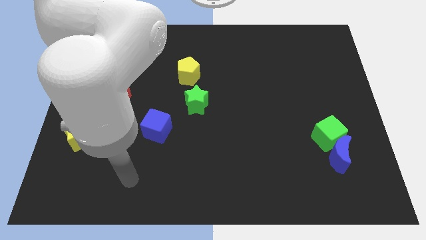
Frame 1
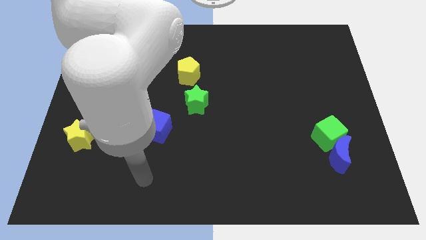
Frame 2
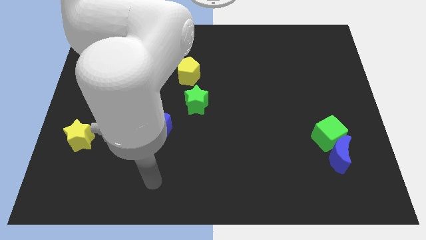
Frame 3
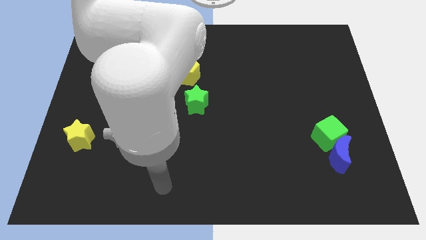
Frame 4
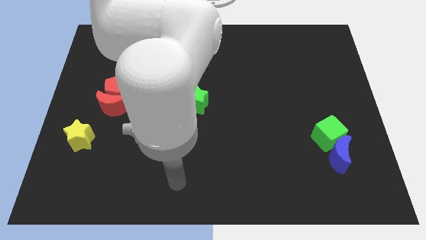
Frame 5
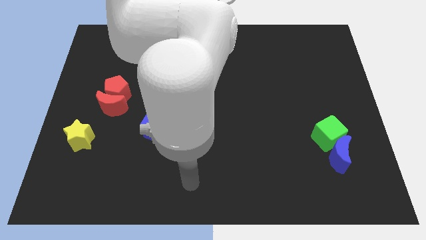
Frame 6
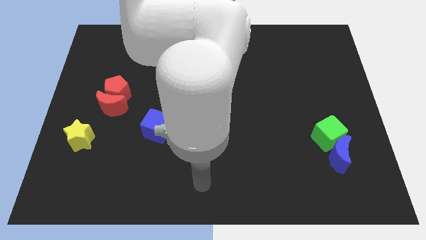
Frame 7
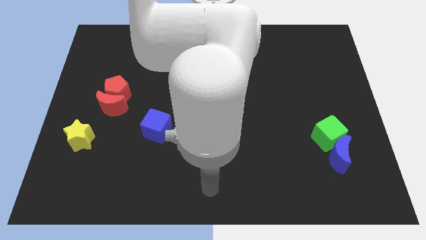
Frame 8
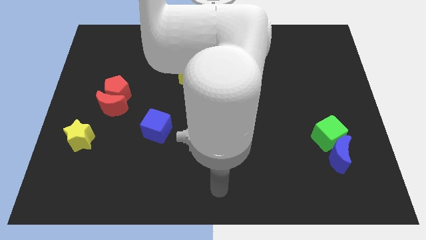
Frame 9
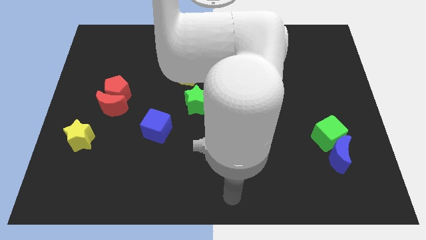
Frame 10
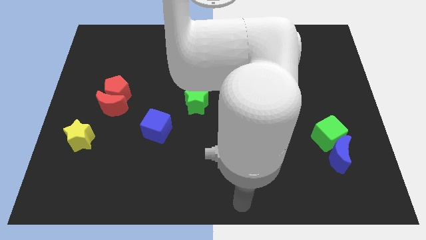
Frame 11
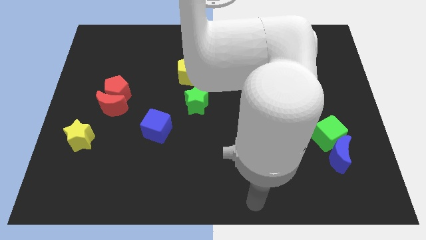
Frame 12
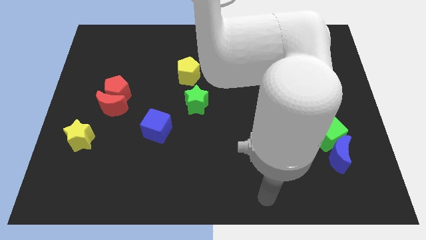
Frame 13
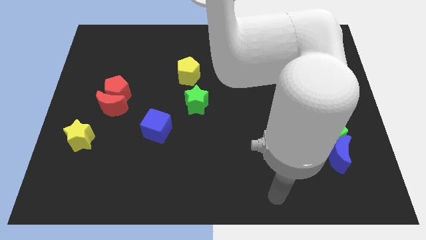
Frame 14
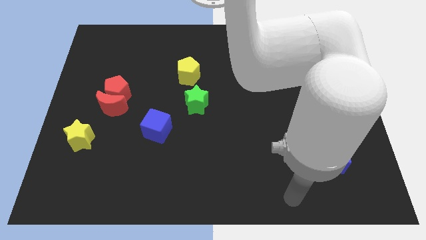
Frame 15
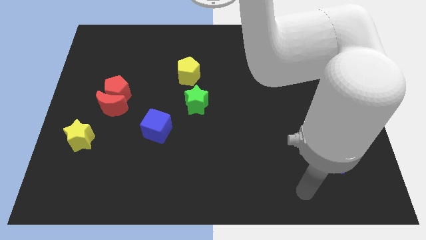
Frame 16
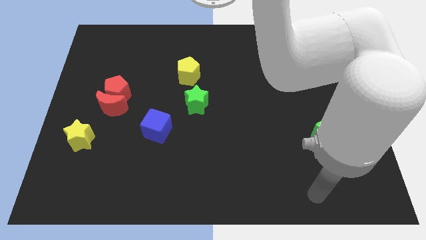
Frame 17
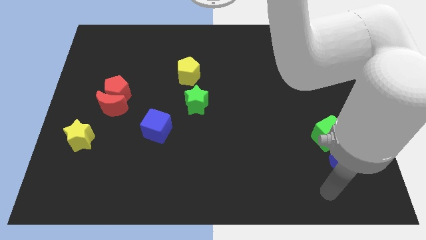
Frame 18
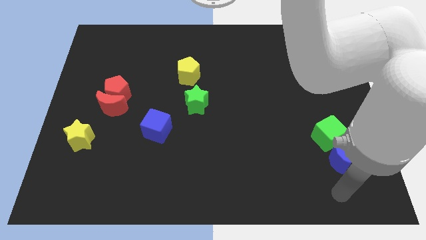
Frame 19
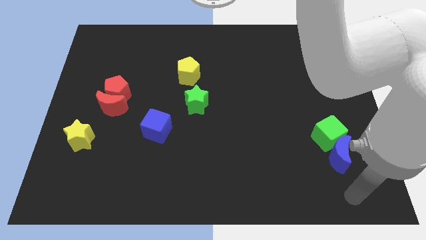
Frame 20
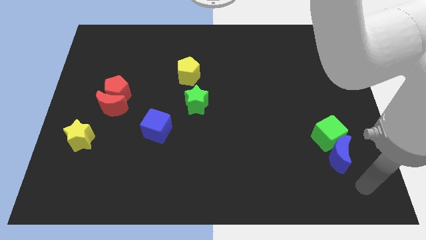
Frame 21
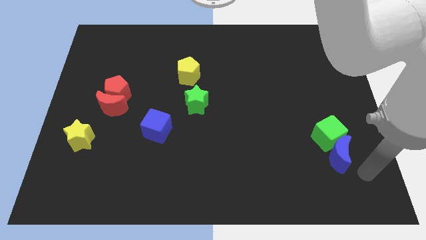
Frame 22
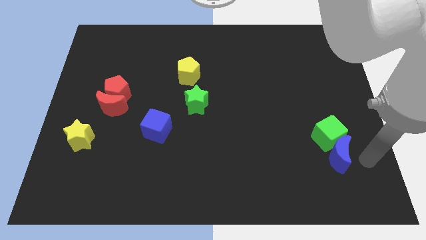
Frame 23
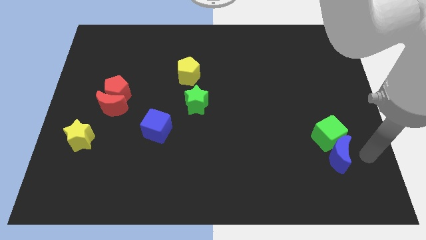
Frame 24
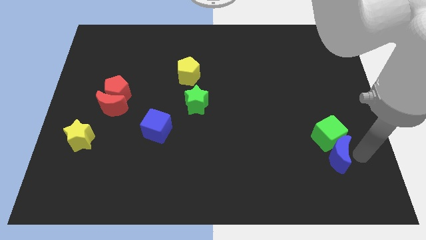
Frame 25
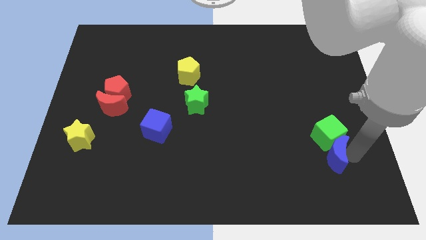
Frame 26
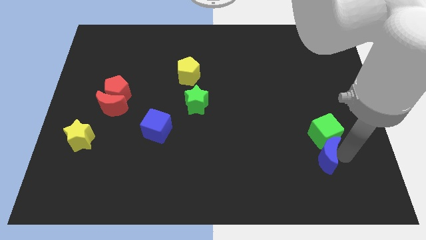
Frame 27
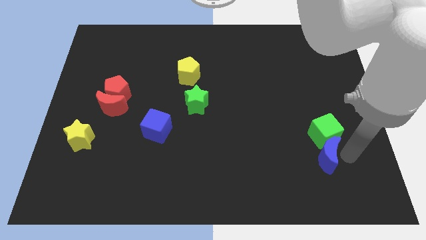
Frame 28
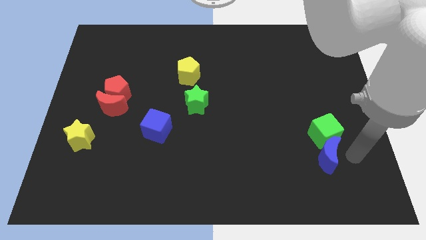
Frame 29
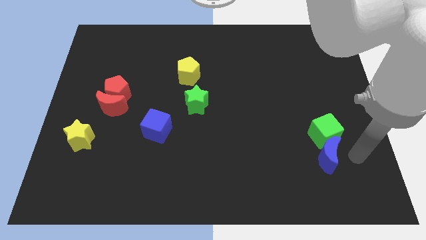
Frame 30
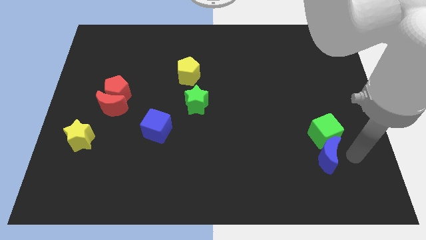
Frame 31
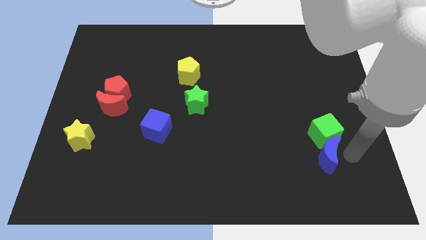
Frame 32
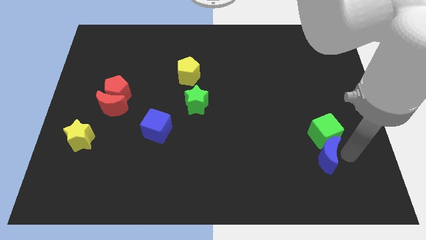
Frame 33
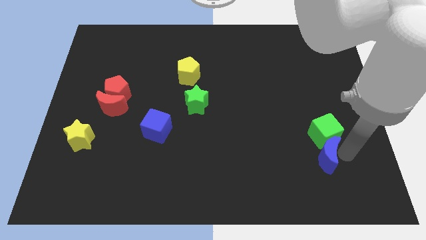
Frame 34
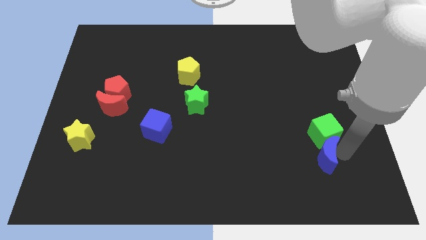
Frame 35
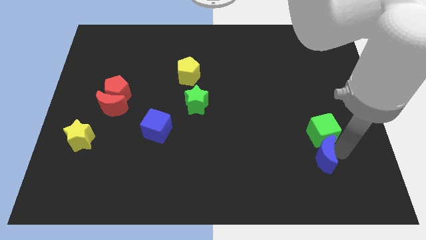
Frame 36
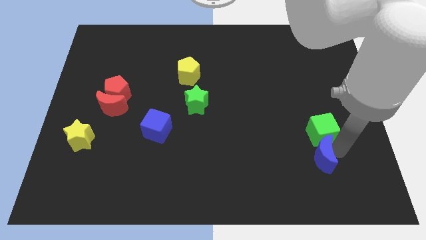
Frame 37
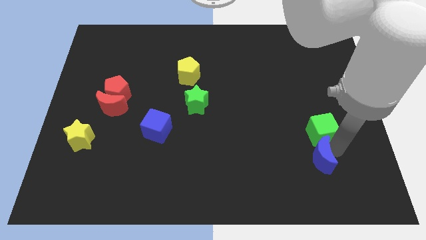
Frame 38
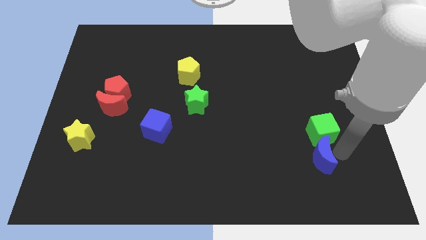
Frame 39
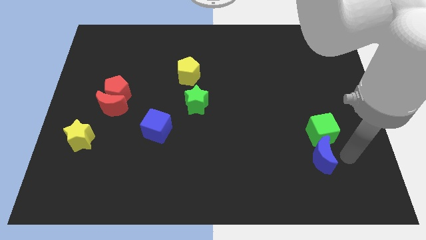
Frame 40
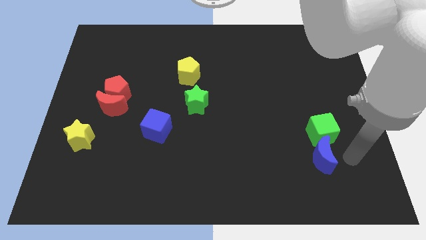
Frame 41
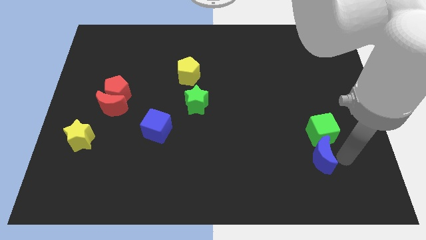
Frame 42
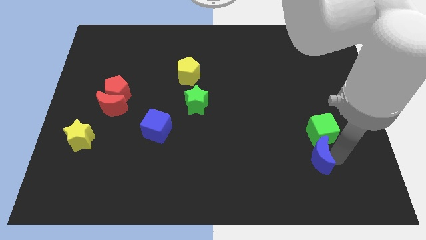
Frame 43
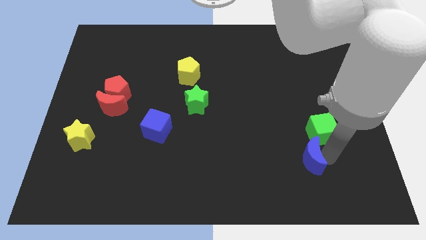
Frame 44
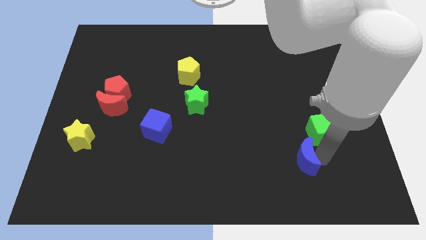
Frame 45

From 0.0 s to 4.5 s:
push the blue moon to the left somewhat

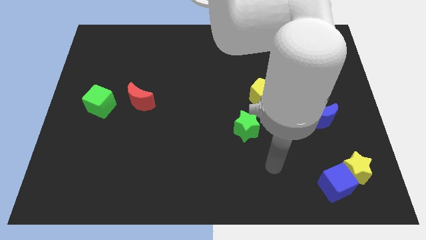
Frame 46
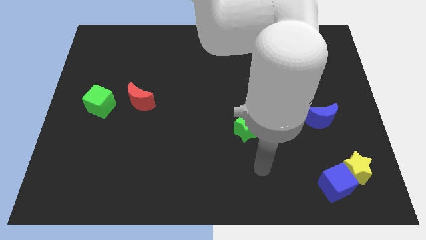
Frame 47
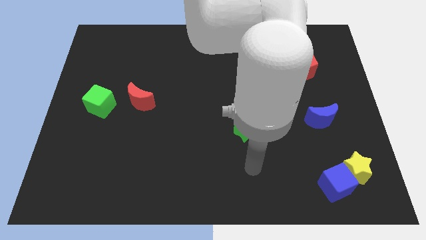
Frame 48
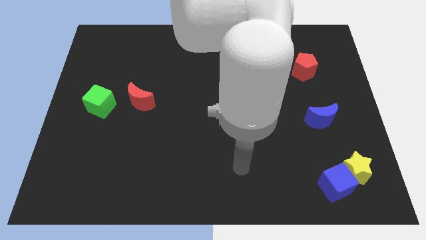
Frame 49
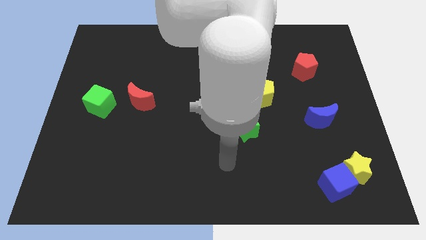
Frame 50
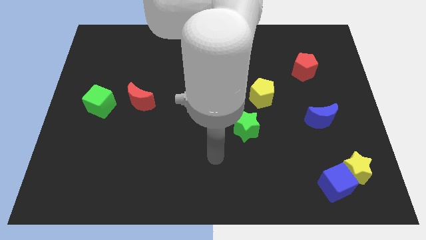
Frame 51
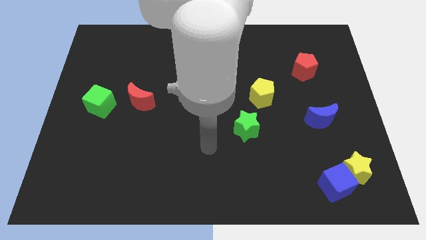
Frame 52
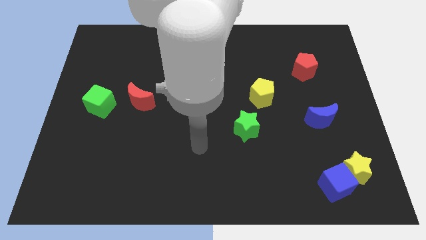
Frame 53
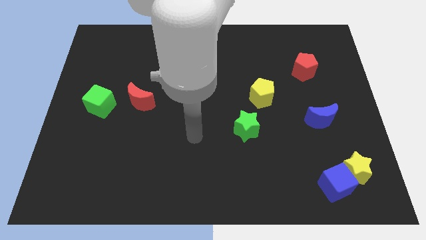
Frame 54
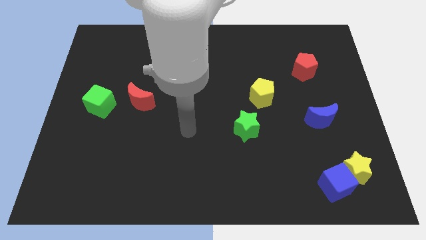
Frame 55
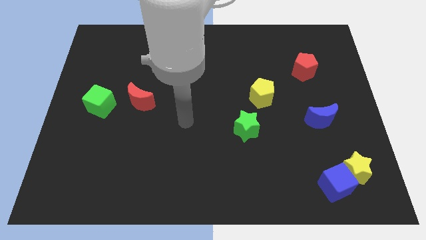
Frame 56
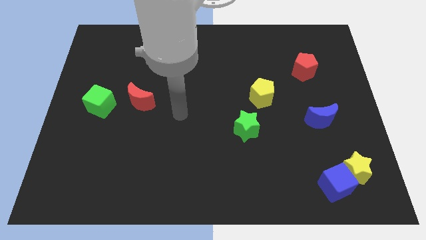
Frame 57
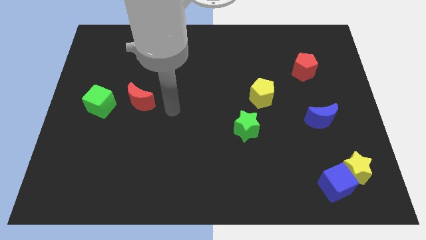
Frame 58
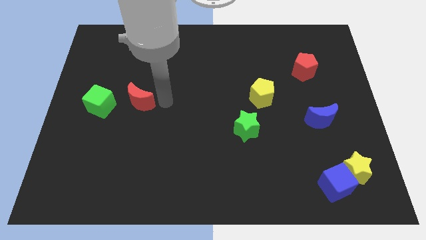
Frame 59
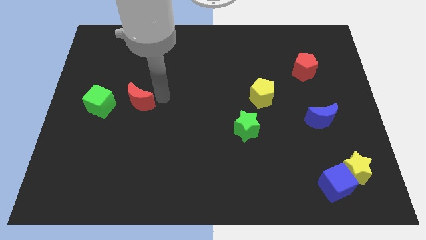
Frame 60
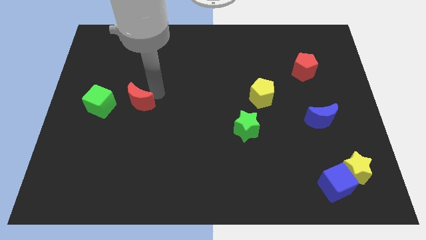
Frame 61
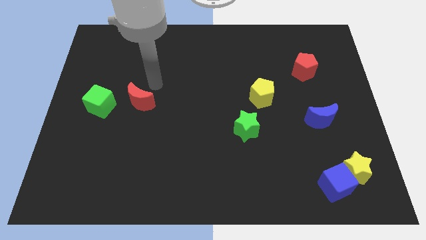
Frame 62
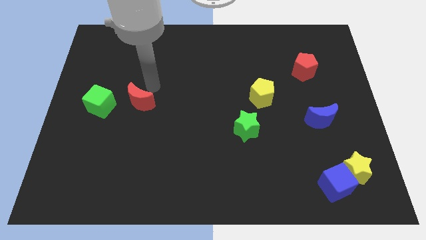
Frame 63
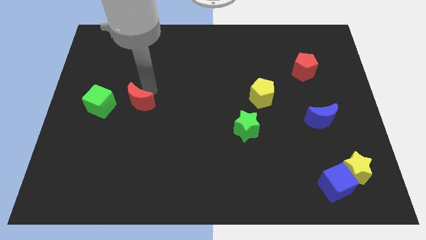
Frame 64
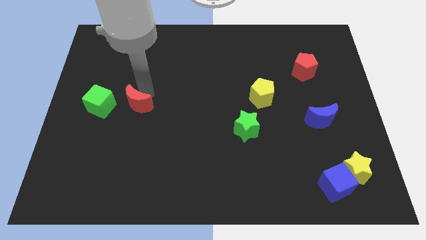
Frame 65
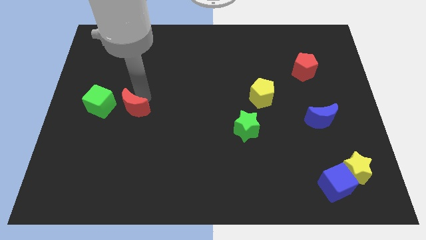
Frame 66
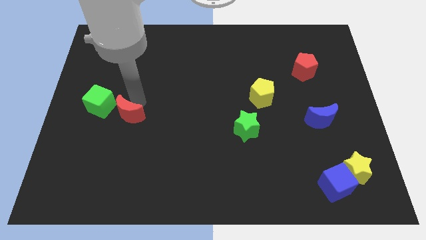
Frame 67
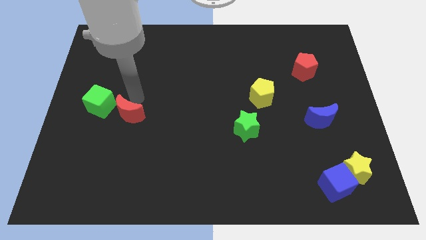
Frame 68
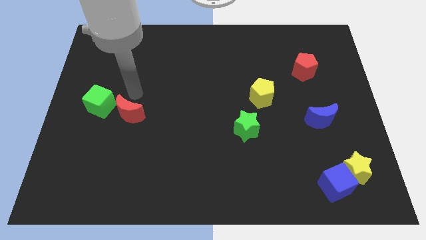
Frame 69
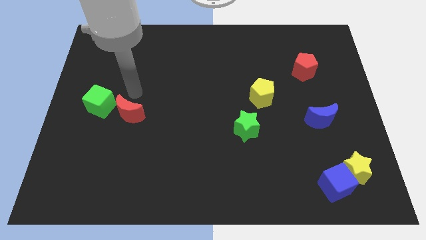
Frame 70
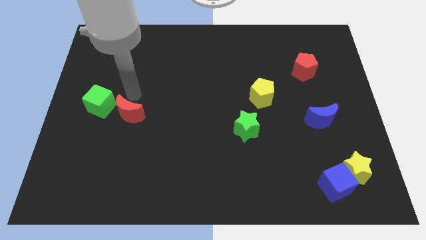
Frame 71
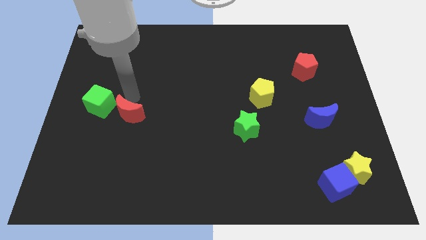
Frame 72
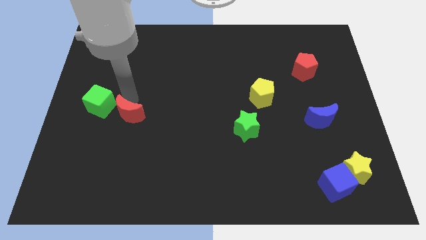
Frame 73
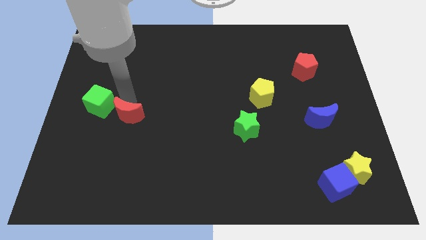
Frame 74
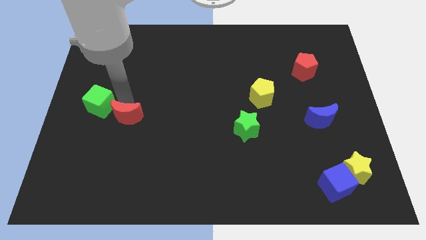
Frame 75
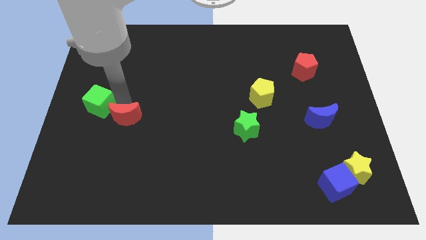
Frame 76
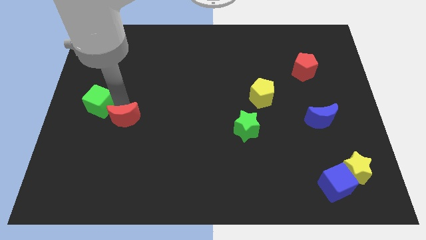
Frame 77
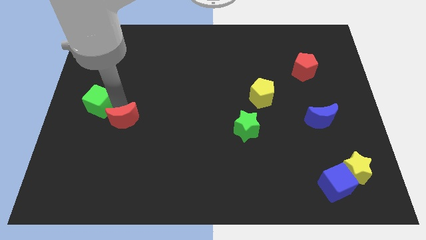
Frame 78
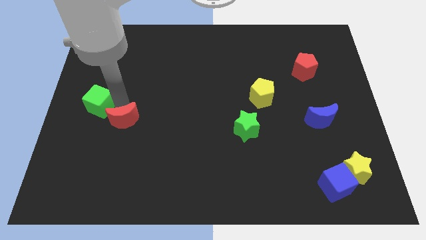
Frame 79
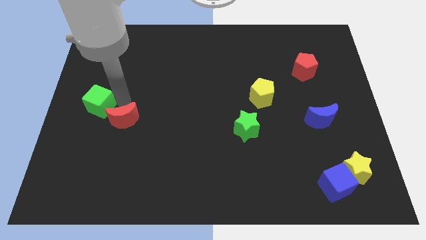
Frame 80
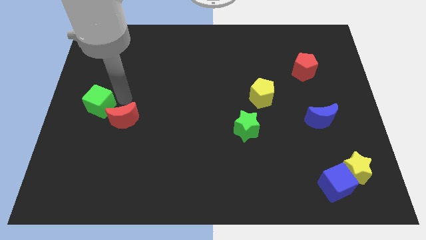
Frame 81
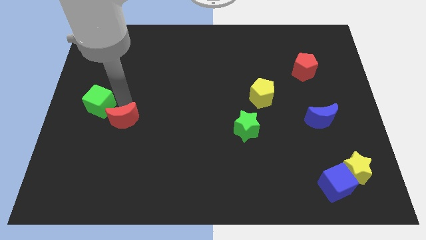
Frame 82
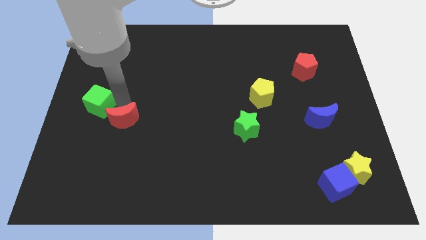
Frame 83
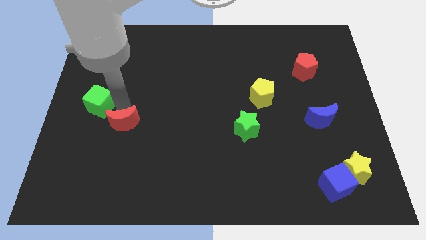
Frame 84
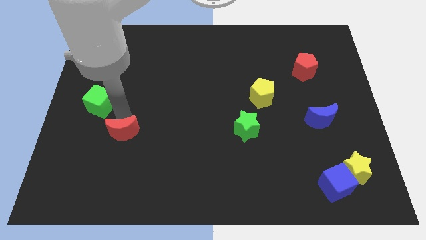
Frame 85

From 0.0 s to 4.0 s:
slide the red moon downwards a little bit
